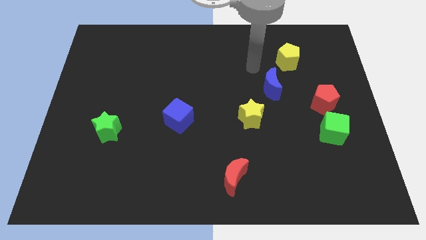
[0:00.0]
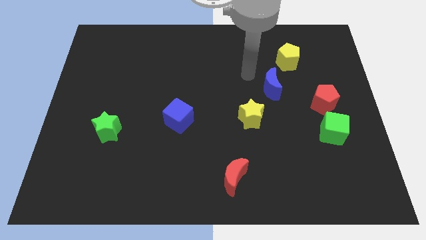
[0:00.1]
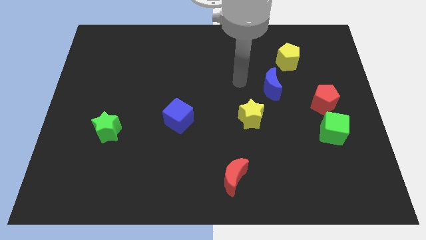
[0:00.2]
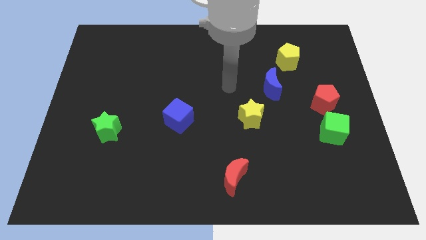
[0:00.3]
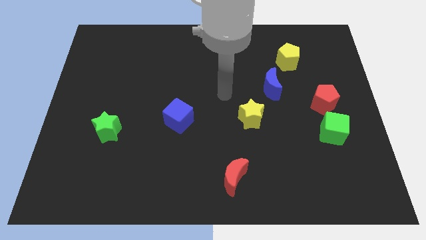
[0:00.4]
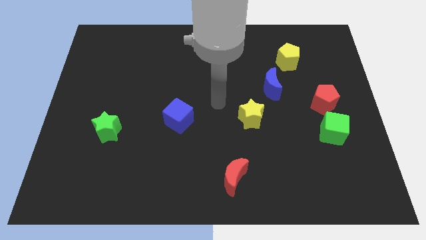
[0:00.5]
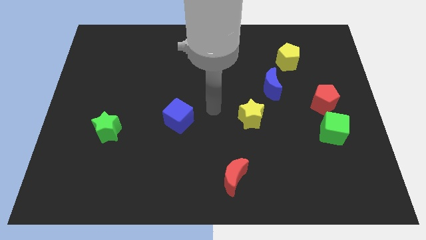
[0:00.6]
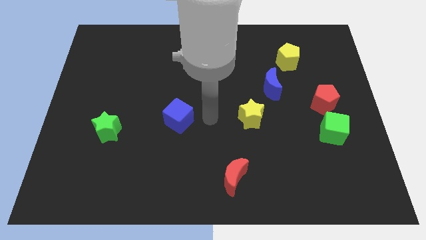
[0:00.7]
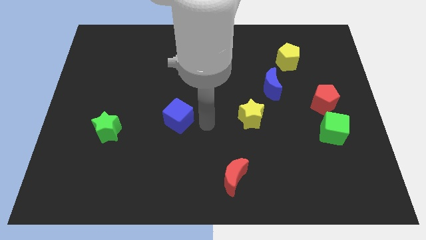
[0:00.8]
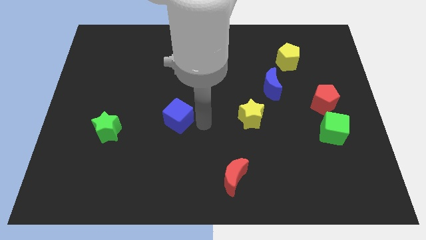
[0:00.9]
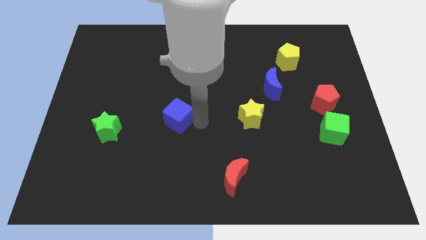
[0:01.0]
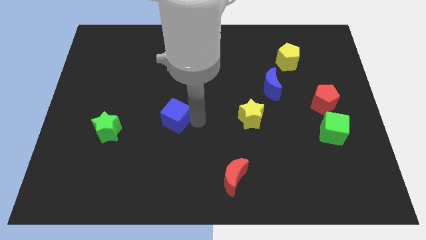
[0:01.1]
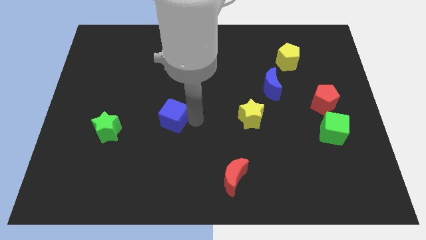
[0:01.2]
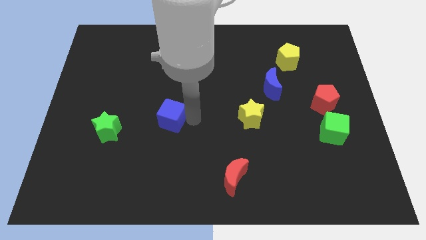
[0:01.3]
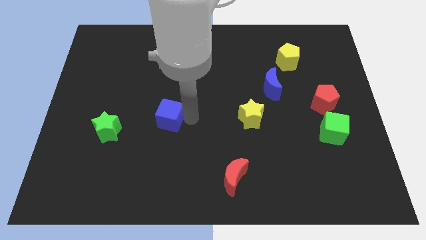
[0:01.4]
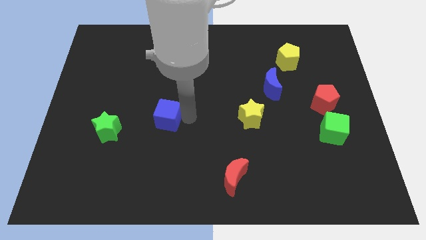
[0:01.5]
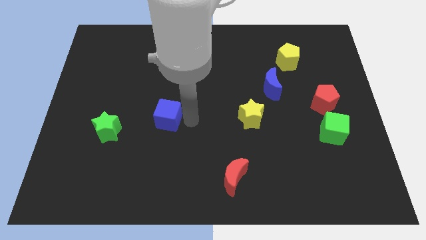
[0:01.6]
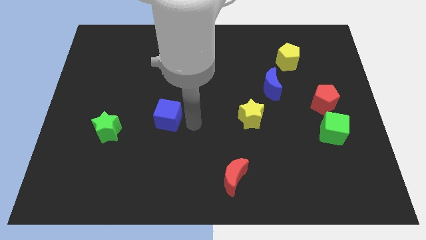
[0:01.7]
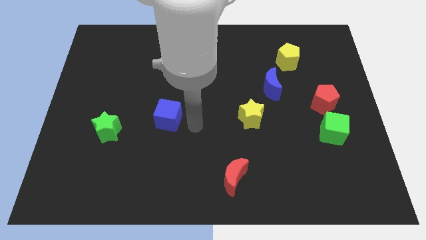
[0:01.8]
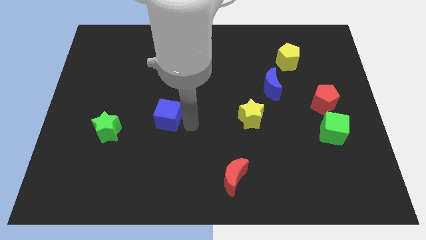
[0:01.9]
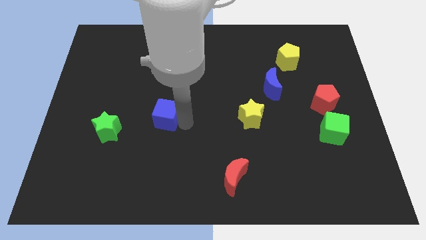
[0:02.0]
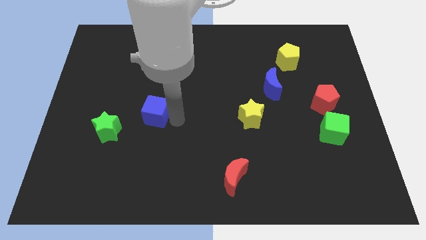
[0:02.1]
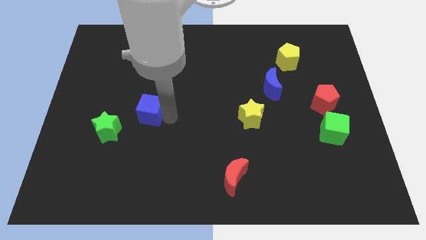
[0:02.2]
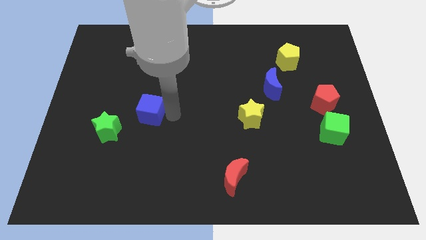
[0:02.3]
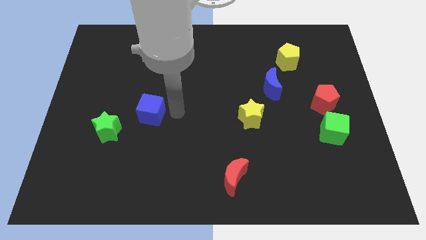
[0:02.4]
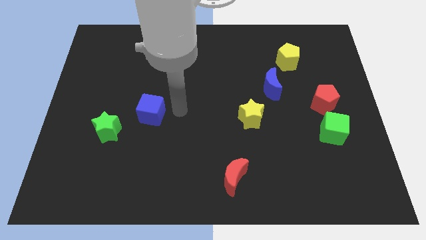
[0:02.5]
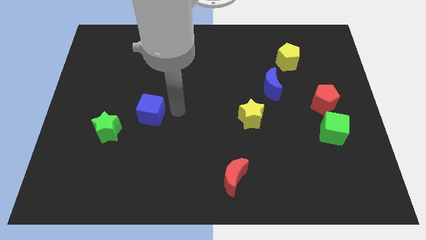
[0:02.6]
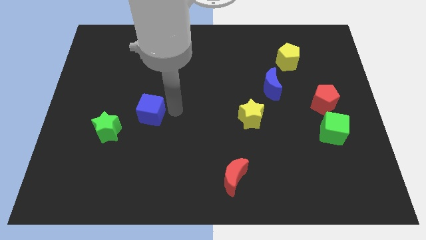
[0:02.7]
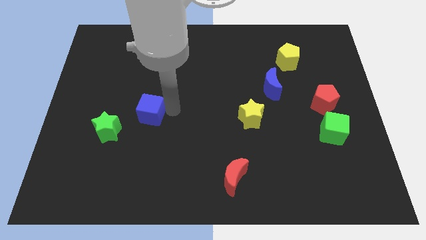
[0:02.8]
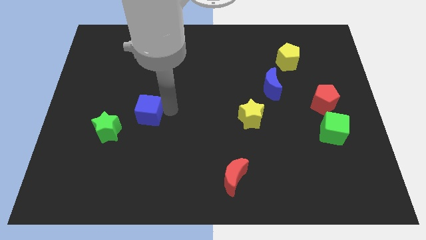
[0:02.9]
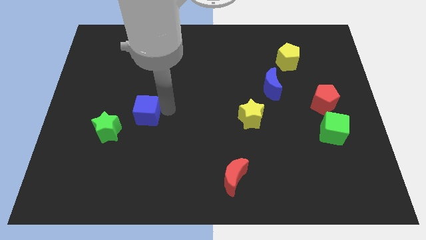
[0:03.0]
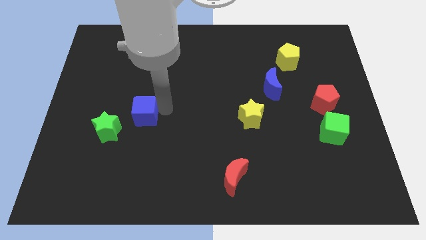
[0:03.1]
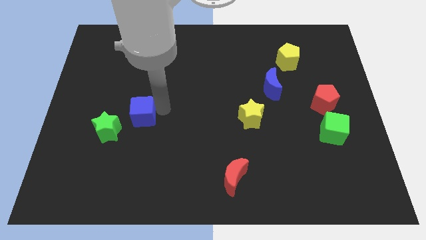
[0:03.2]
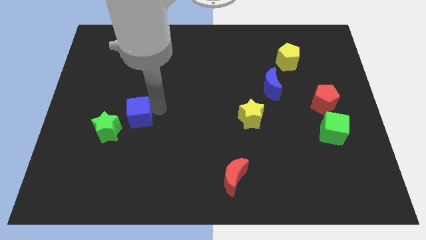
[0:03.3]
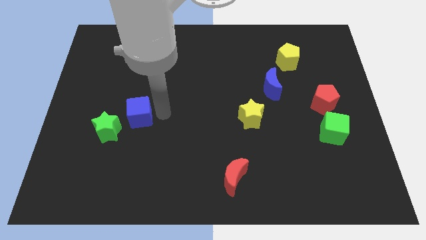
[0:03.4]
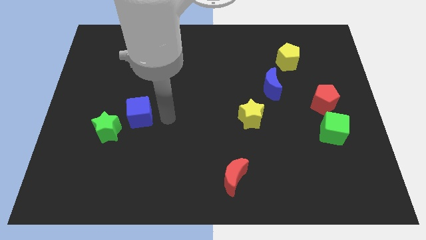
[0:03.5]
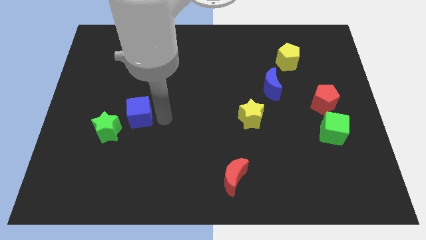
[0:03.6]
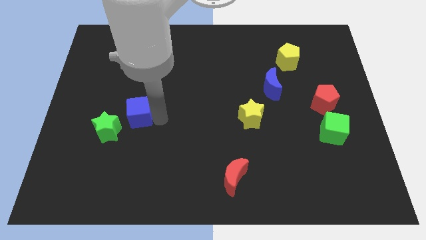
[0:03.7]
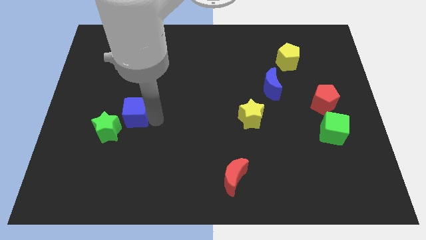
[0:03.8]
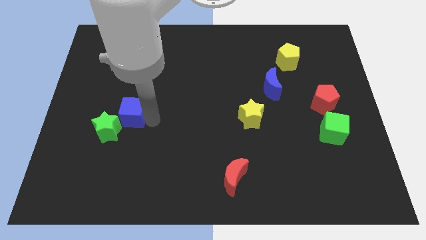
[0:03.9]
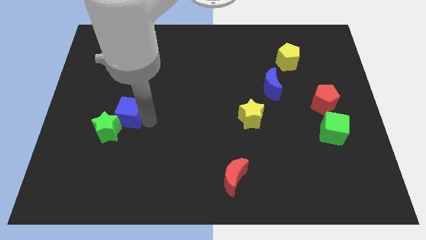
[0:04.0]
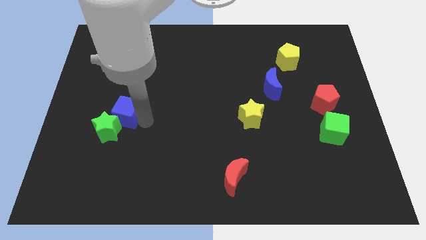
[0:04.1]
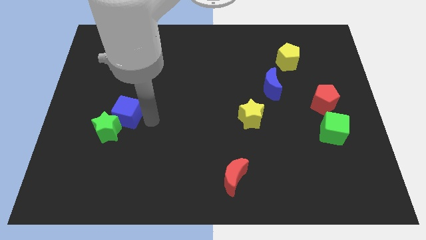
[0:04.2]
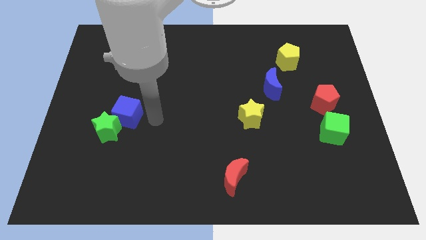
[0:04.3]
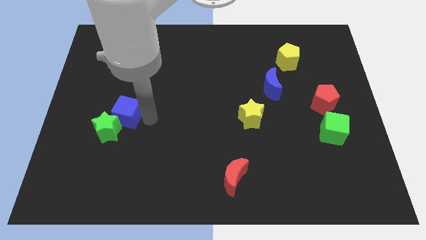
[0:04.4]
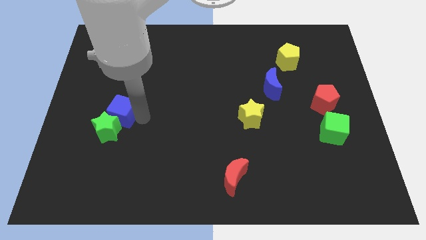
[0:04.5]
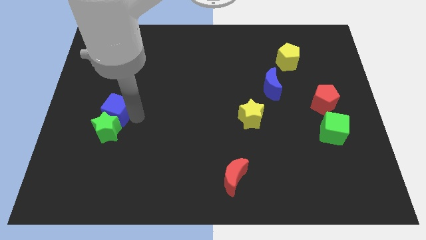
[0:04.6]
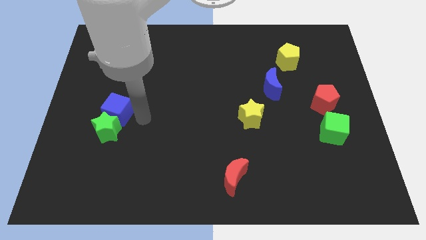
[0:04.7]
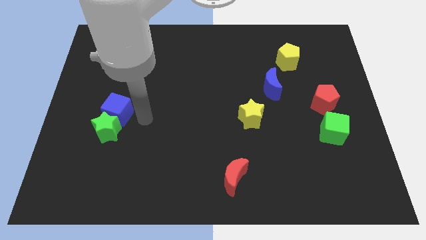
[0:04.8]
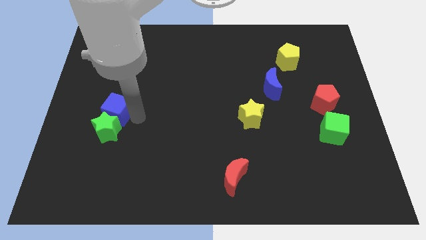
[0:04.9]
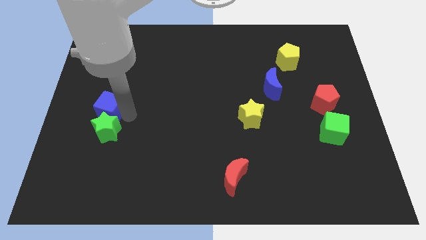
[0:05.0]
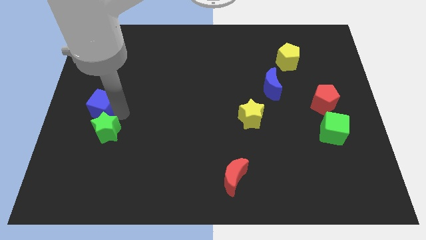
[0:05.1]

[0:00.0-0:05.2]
move the blue cube to the left side of the board

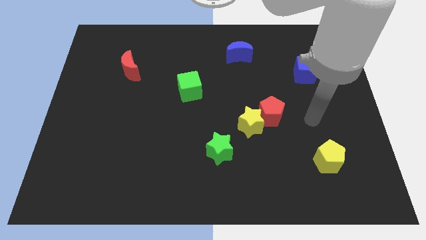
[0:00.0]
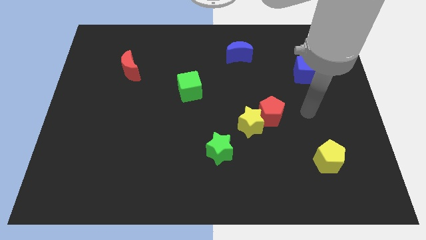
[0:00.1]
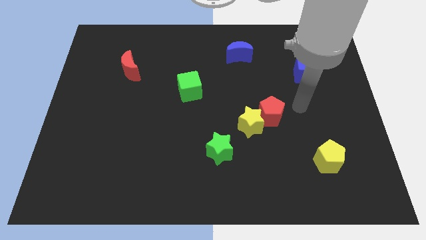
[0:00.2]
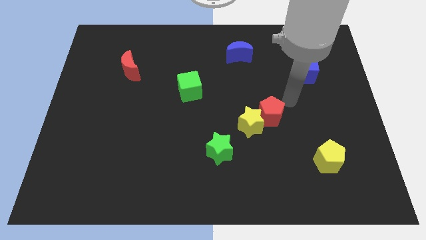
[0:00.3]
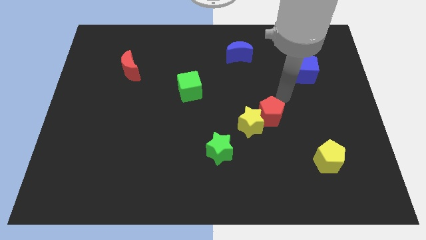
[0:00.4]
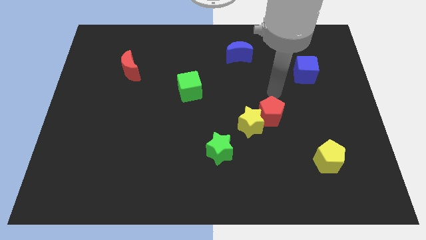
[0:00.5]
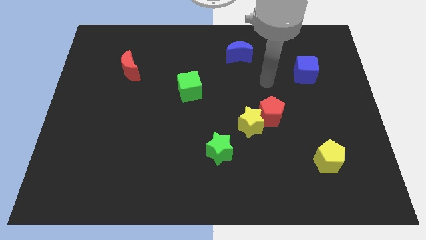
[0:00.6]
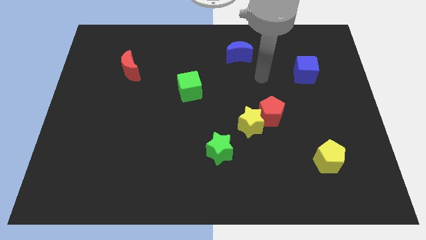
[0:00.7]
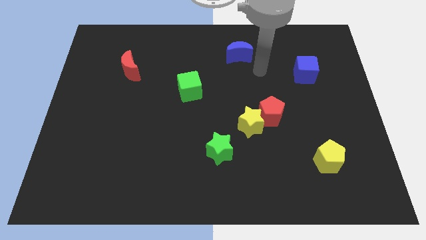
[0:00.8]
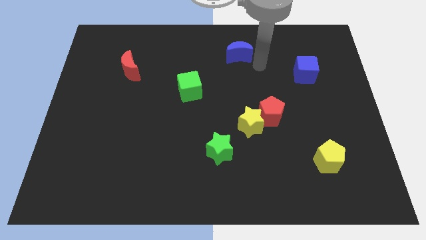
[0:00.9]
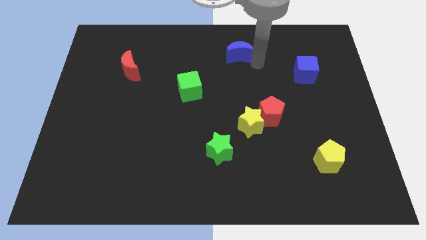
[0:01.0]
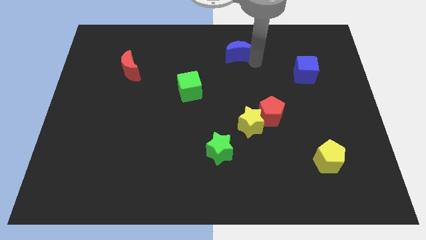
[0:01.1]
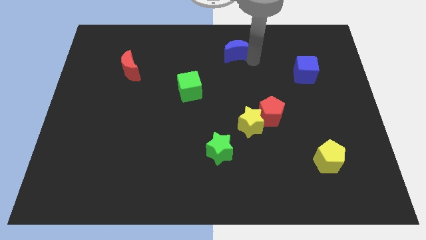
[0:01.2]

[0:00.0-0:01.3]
move the blue moon to the towards your base
